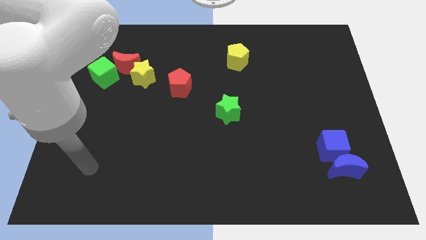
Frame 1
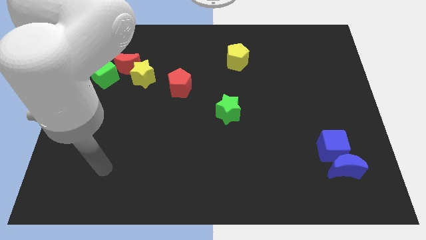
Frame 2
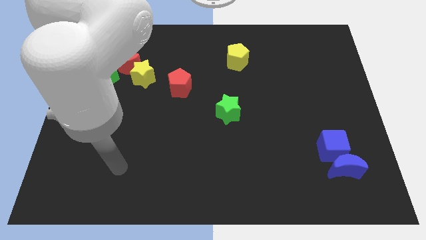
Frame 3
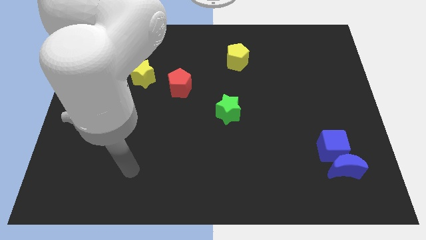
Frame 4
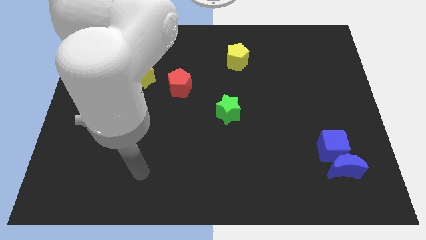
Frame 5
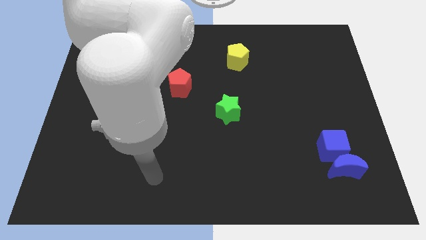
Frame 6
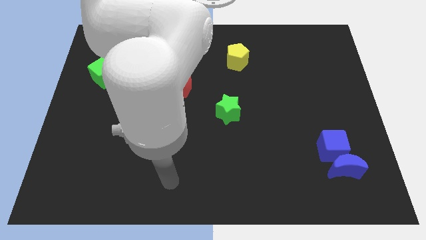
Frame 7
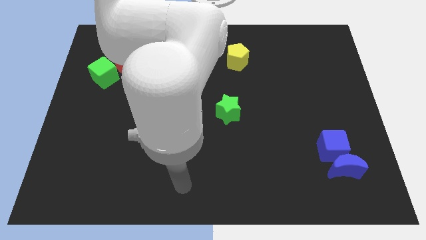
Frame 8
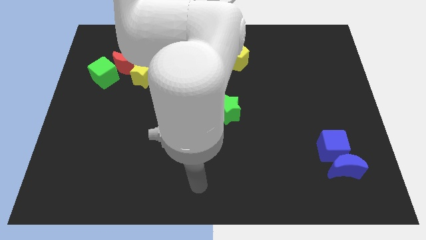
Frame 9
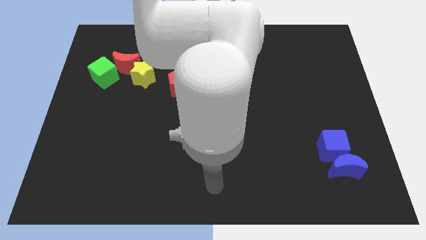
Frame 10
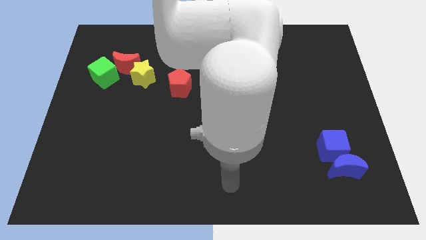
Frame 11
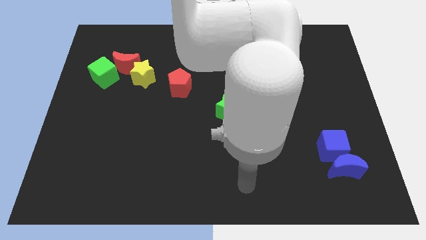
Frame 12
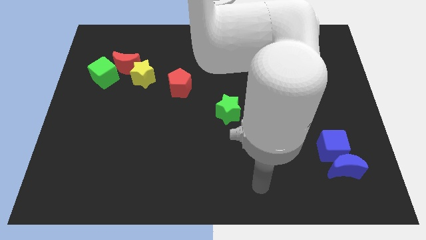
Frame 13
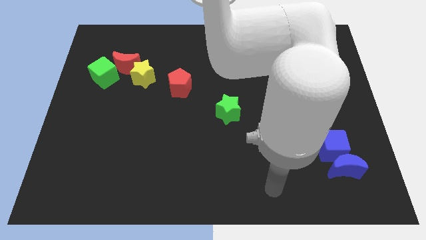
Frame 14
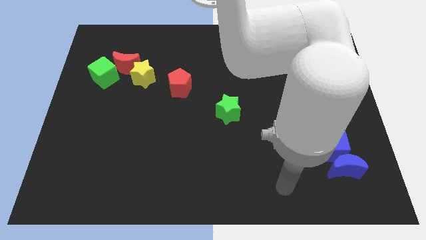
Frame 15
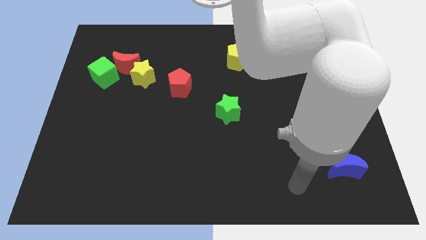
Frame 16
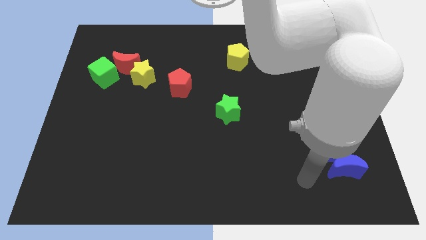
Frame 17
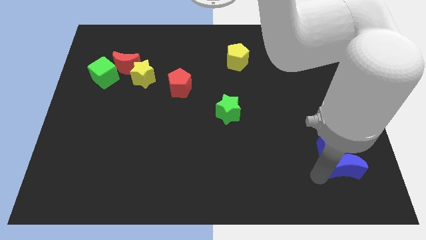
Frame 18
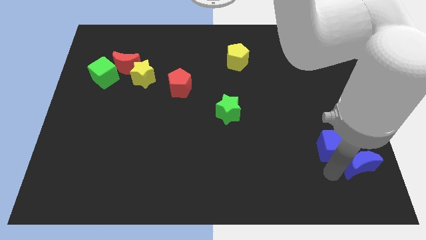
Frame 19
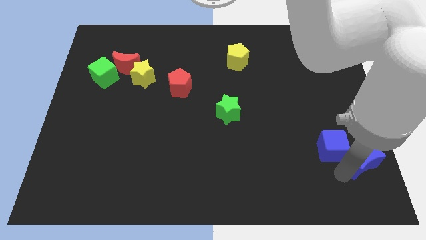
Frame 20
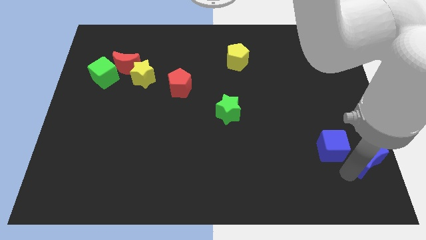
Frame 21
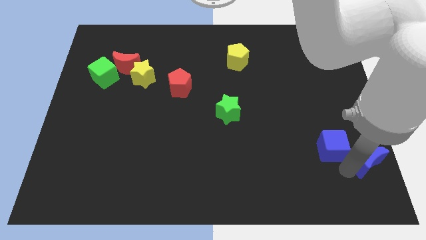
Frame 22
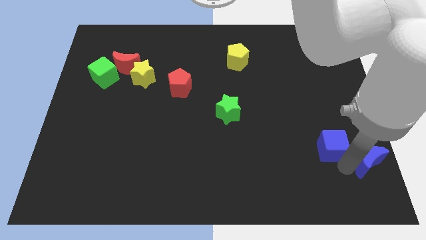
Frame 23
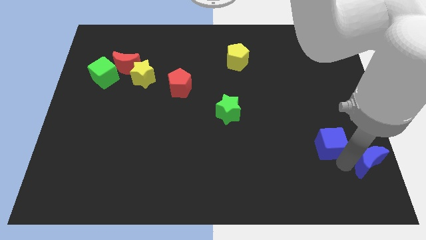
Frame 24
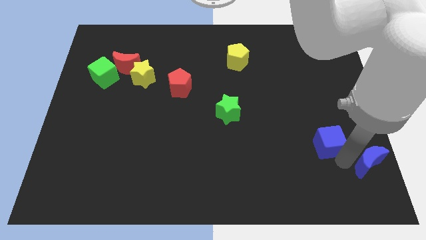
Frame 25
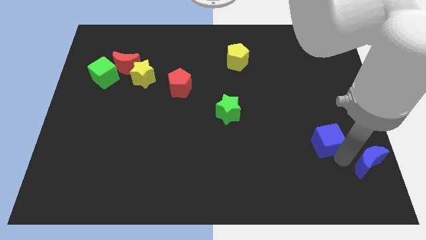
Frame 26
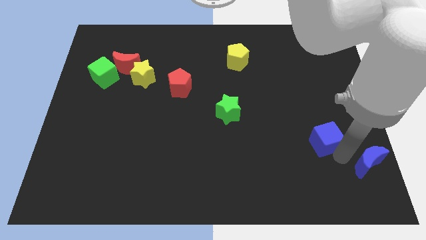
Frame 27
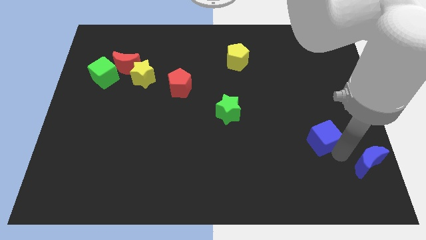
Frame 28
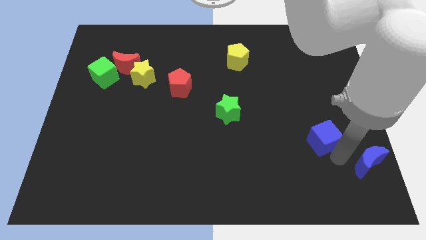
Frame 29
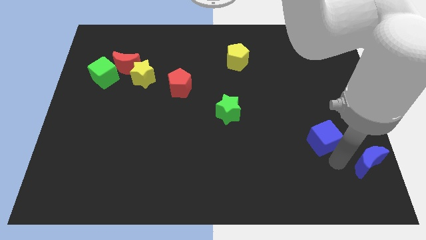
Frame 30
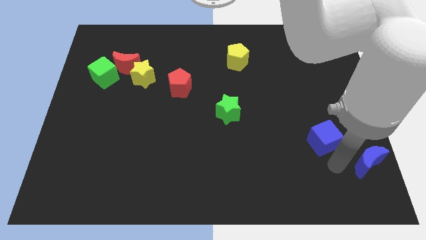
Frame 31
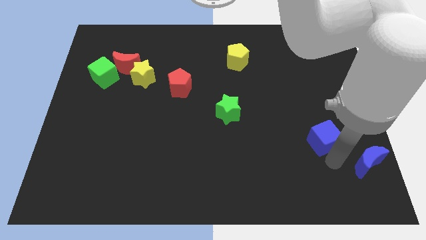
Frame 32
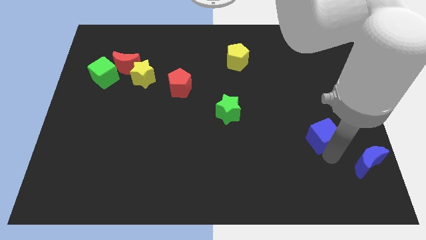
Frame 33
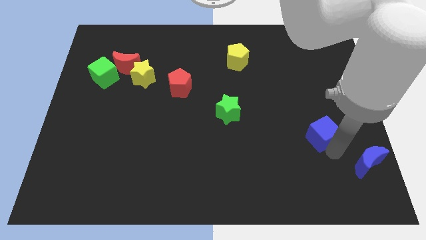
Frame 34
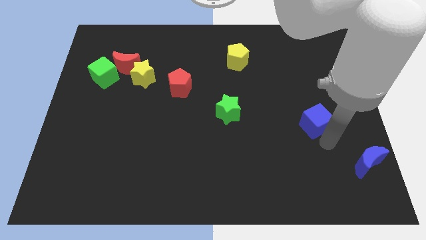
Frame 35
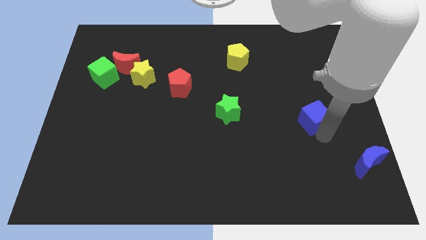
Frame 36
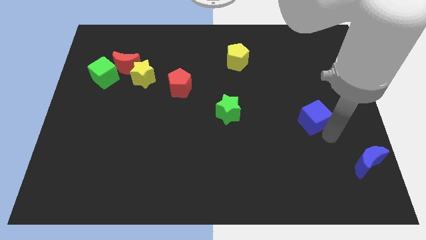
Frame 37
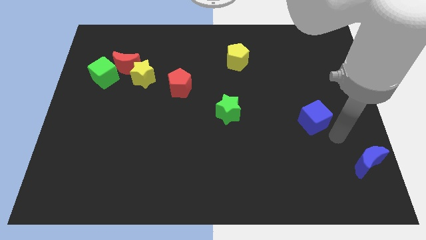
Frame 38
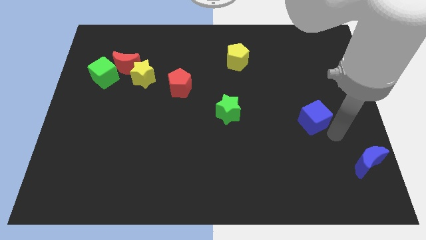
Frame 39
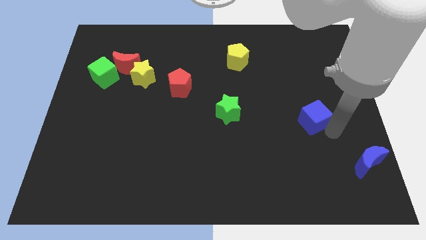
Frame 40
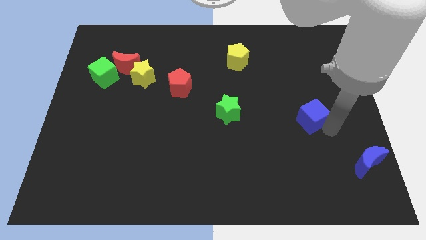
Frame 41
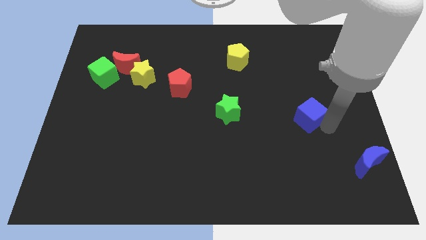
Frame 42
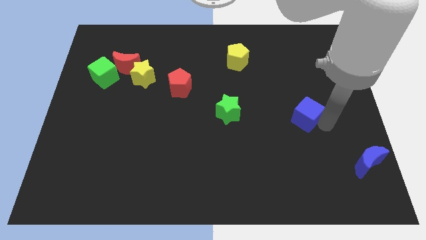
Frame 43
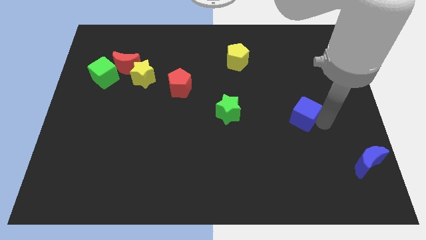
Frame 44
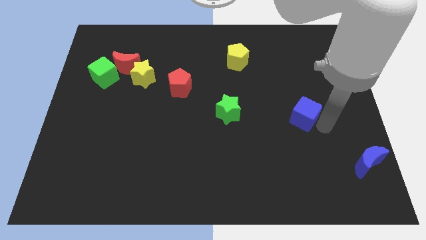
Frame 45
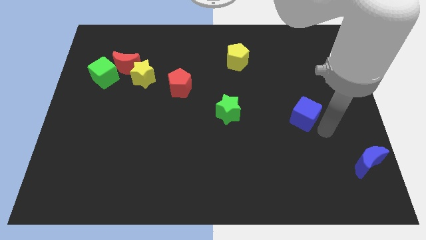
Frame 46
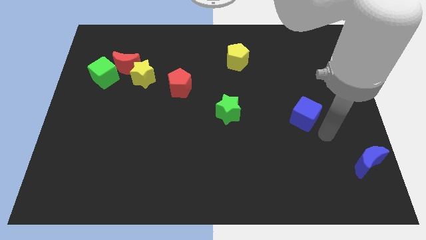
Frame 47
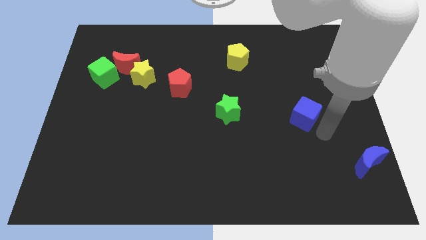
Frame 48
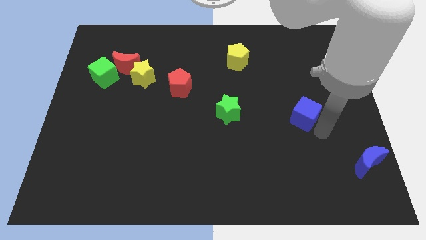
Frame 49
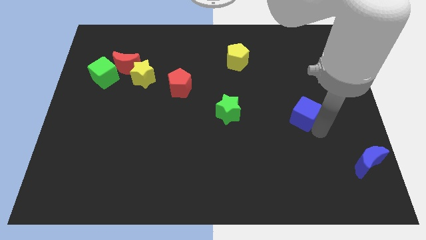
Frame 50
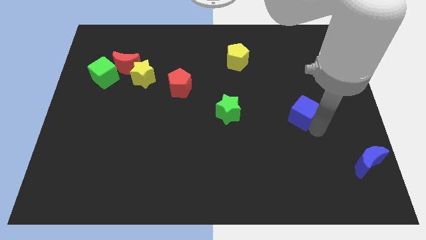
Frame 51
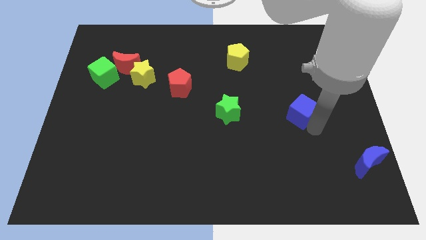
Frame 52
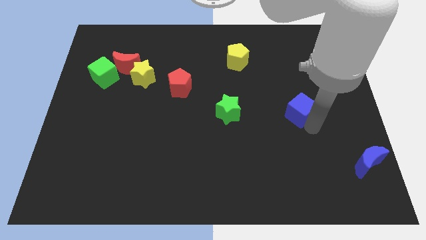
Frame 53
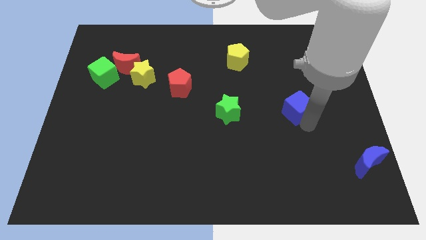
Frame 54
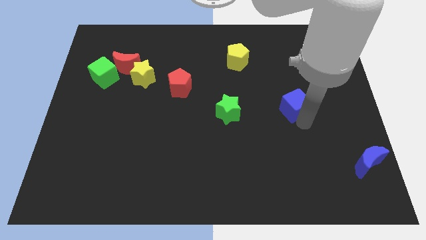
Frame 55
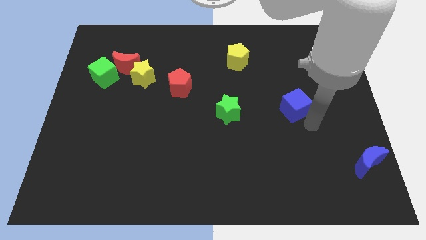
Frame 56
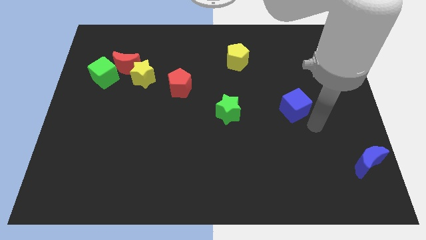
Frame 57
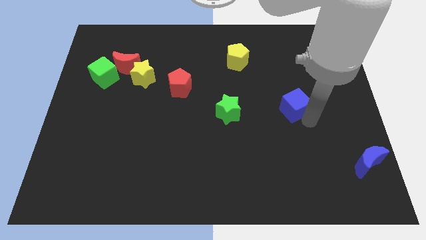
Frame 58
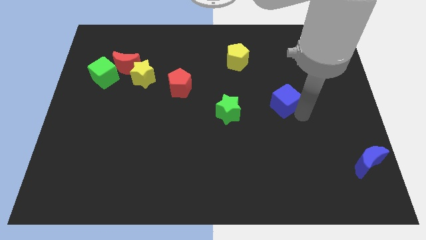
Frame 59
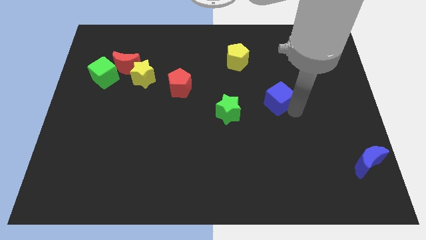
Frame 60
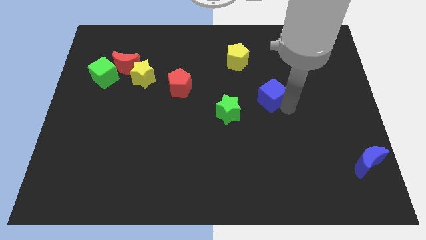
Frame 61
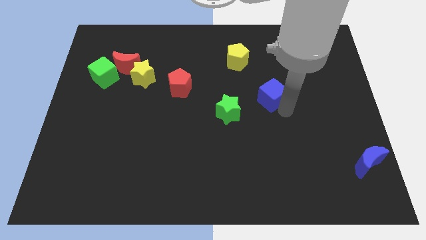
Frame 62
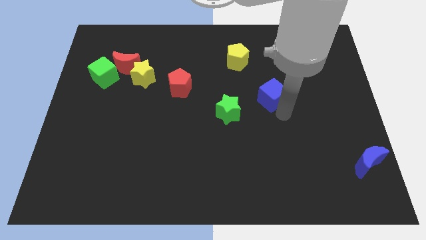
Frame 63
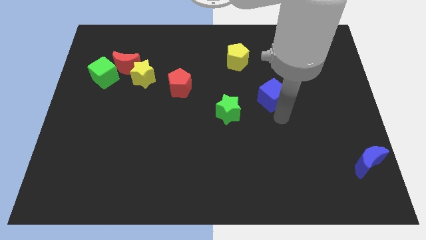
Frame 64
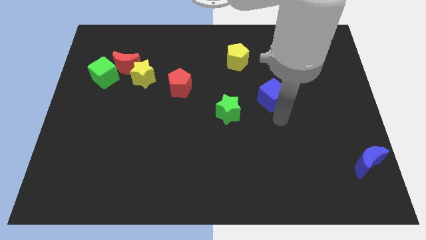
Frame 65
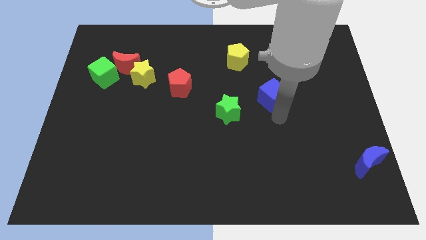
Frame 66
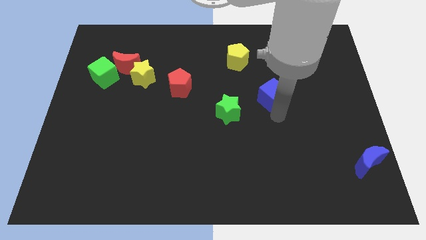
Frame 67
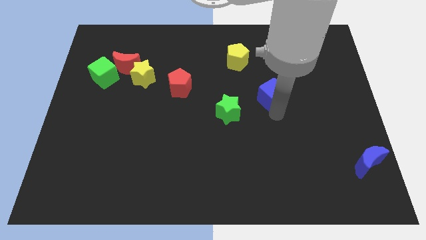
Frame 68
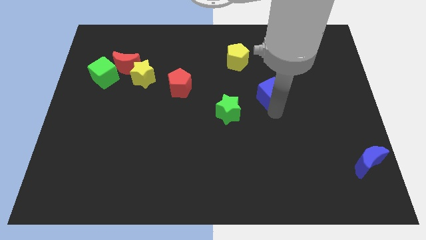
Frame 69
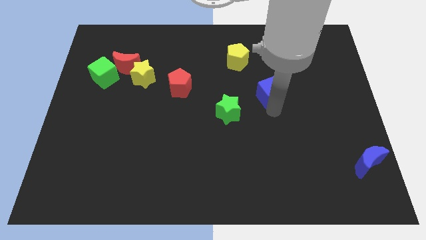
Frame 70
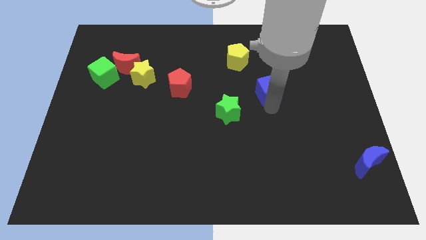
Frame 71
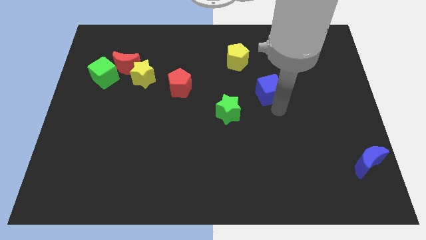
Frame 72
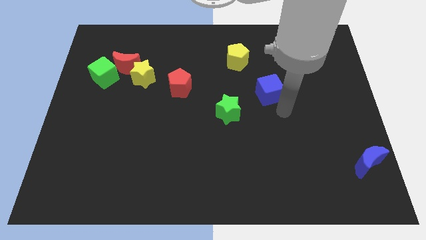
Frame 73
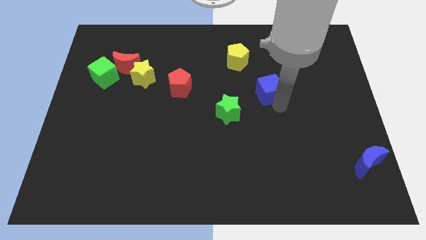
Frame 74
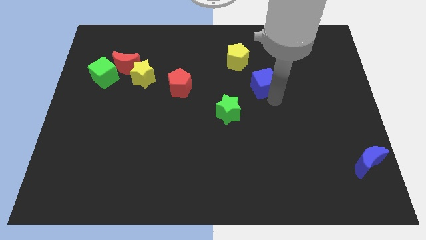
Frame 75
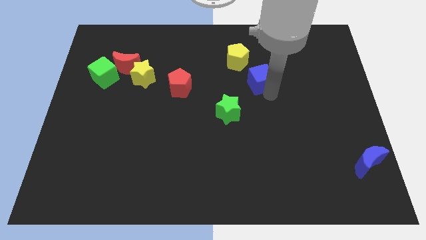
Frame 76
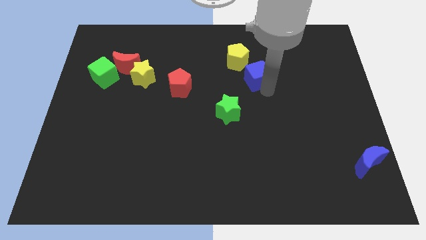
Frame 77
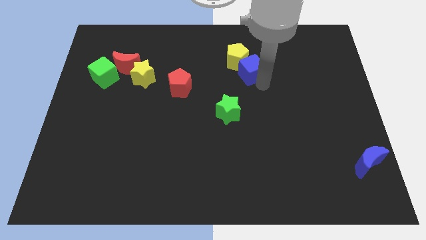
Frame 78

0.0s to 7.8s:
slide the blue cube next to the yellow pentagon
